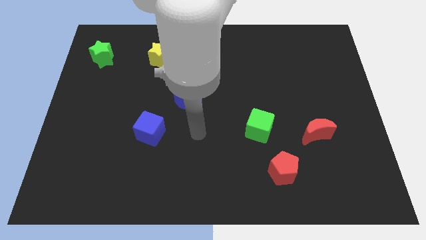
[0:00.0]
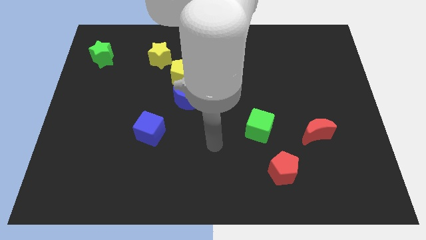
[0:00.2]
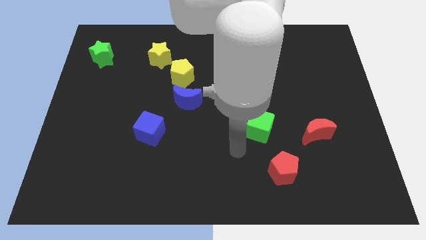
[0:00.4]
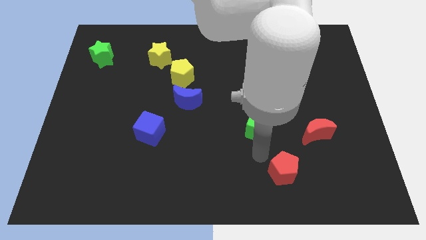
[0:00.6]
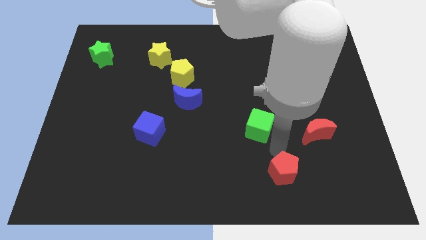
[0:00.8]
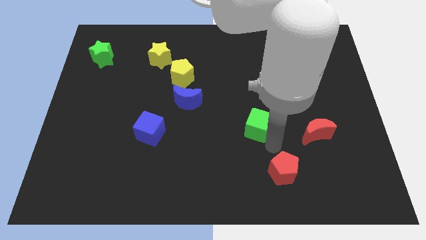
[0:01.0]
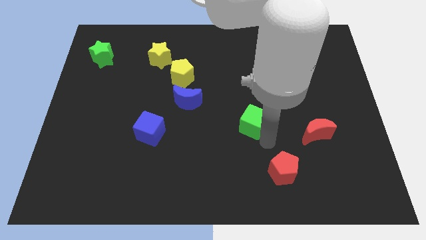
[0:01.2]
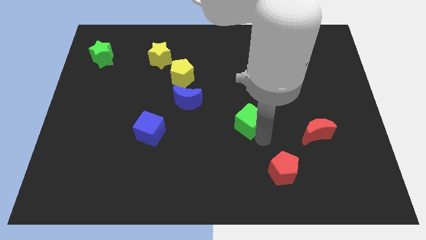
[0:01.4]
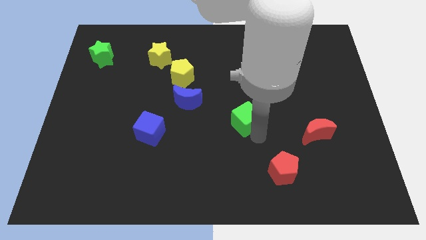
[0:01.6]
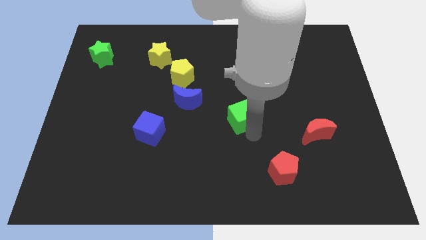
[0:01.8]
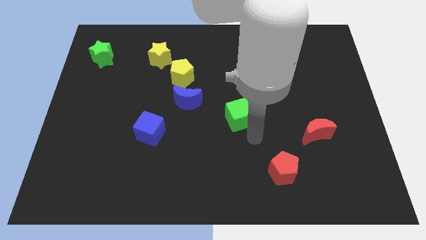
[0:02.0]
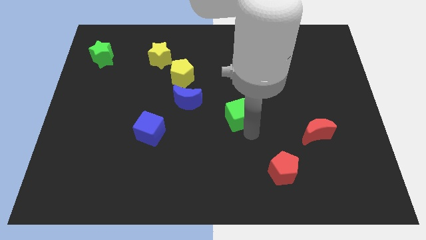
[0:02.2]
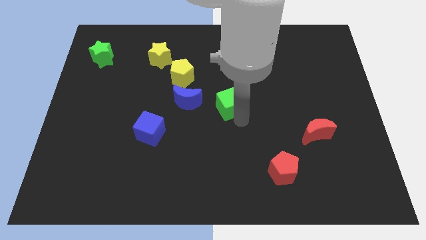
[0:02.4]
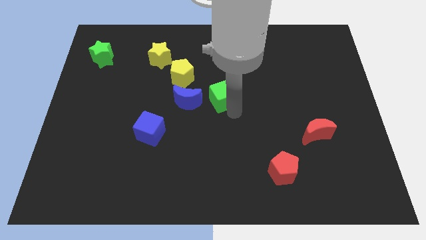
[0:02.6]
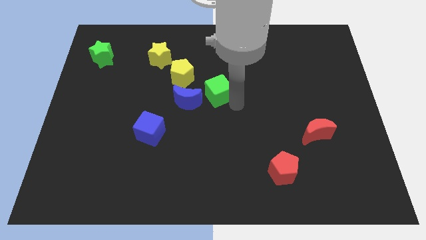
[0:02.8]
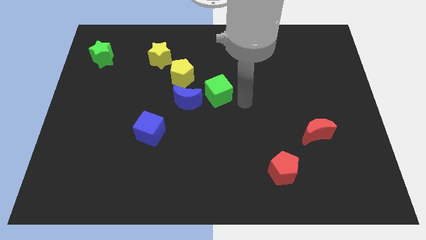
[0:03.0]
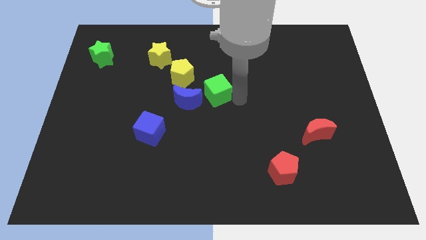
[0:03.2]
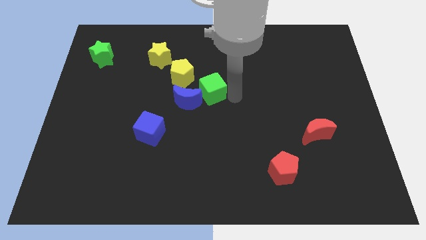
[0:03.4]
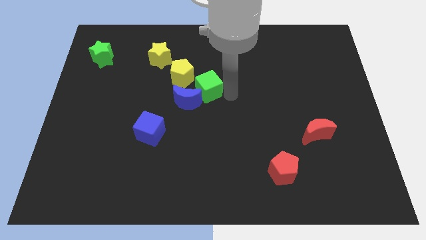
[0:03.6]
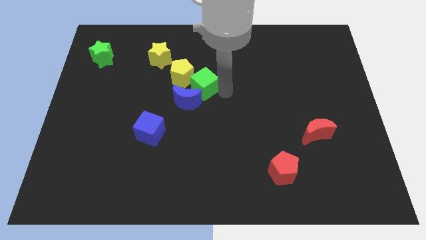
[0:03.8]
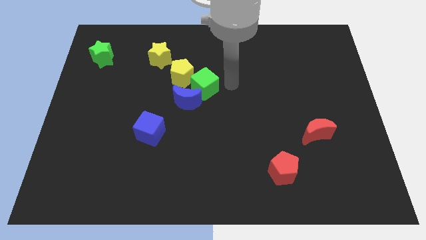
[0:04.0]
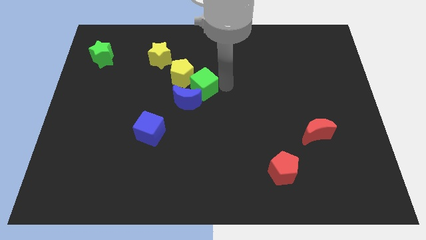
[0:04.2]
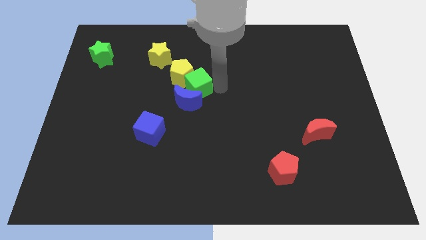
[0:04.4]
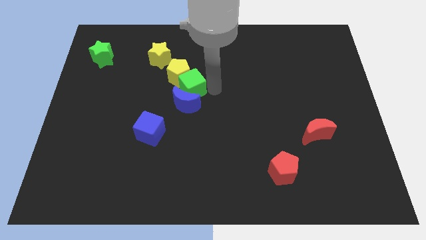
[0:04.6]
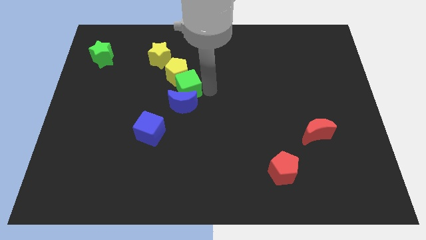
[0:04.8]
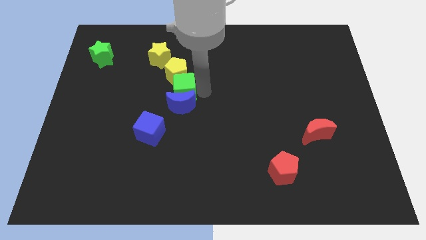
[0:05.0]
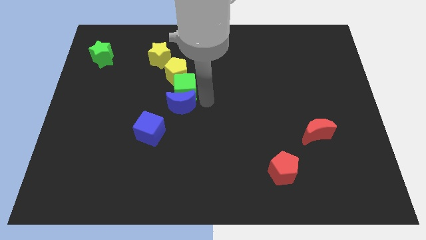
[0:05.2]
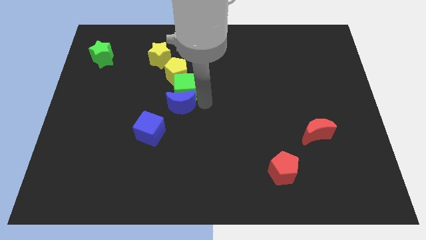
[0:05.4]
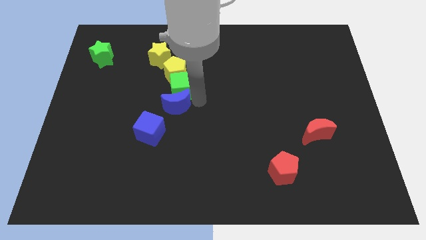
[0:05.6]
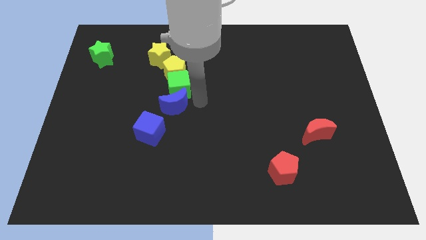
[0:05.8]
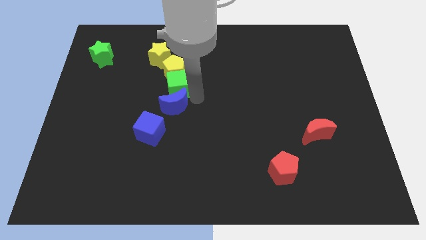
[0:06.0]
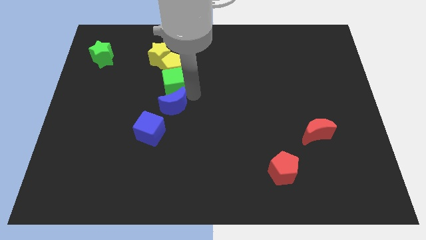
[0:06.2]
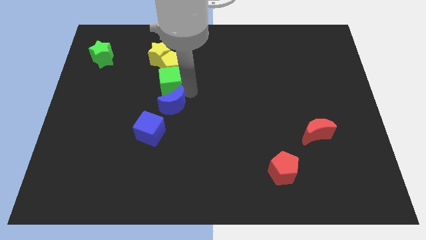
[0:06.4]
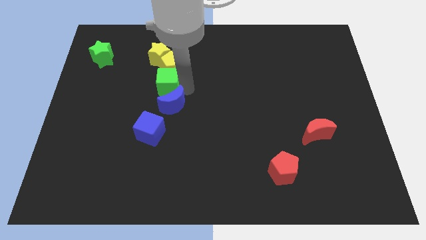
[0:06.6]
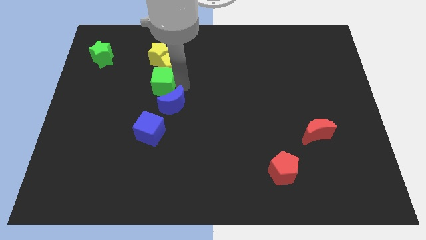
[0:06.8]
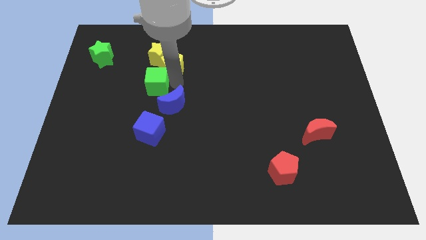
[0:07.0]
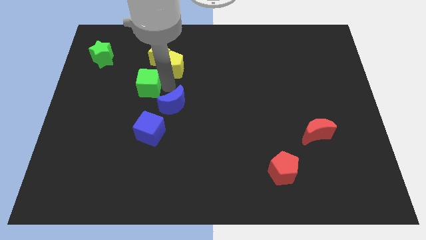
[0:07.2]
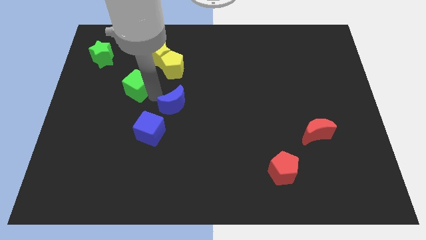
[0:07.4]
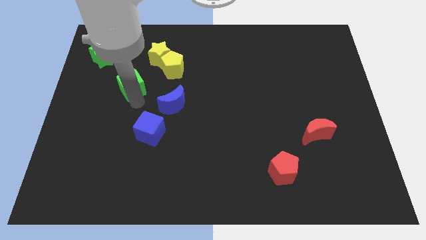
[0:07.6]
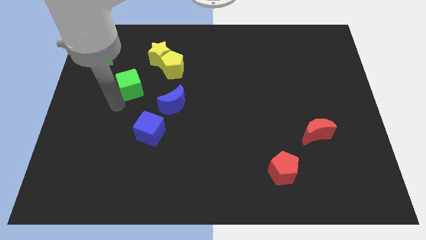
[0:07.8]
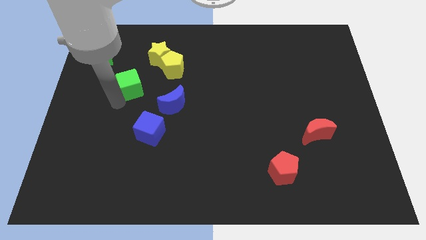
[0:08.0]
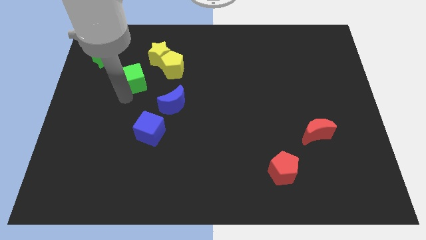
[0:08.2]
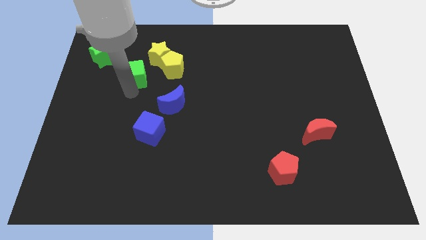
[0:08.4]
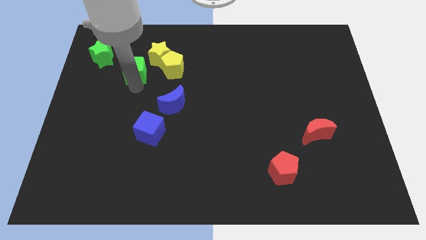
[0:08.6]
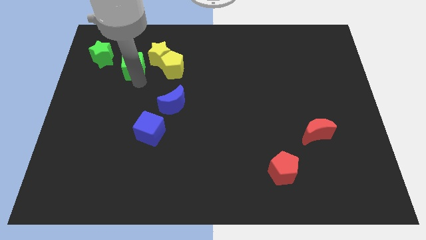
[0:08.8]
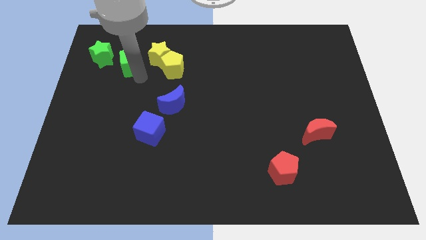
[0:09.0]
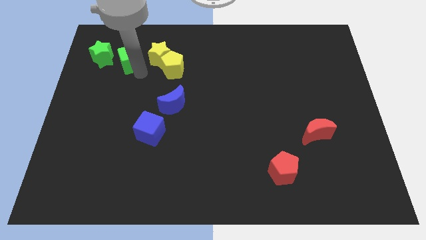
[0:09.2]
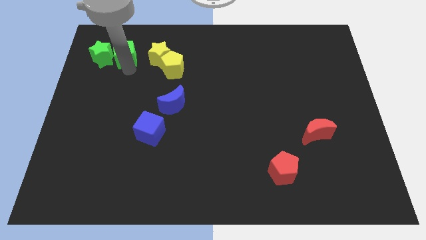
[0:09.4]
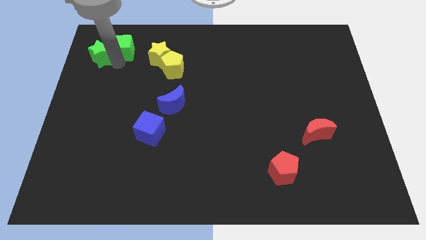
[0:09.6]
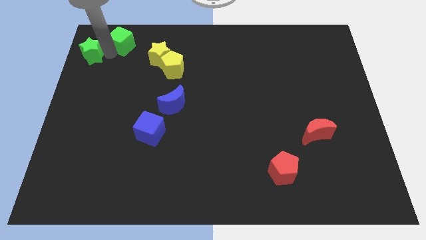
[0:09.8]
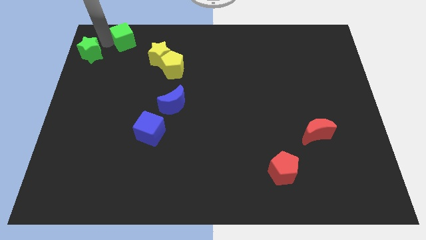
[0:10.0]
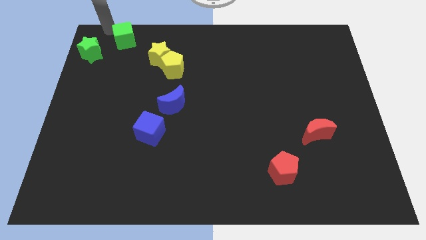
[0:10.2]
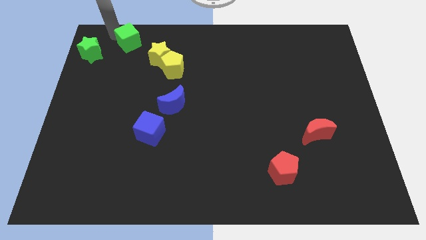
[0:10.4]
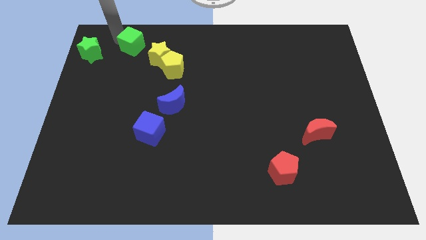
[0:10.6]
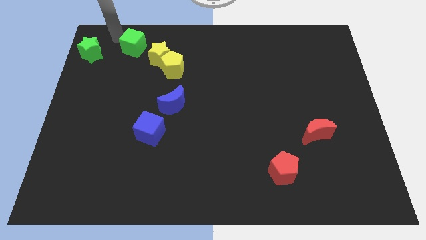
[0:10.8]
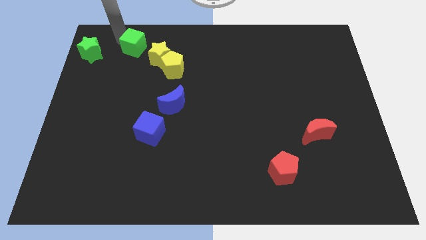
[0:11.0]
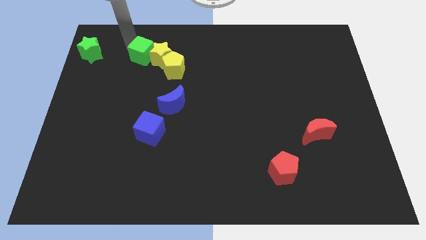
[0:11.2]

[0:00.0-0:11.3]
push the green cube close to the yellow star

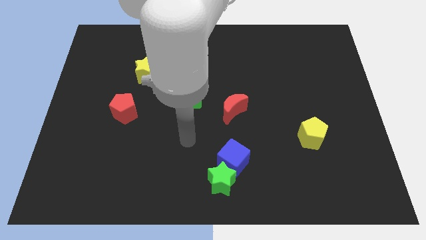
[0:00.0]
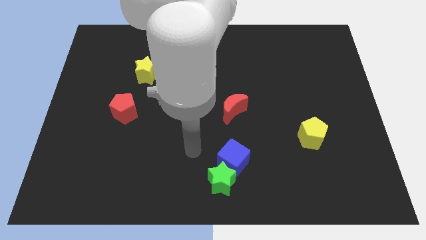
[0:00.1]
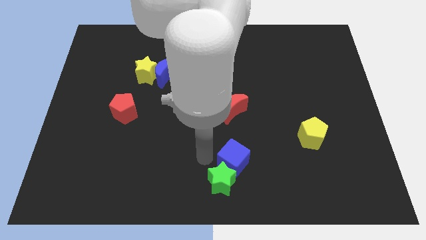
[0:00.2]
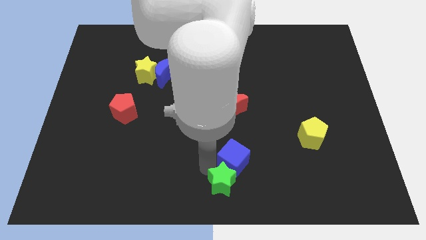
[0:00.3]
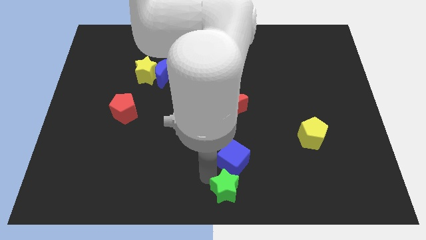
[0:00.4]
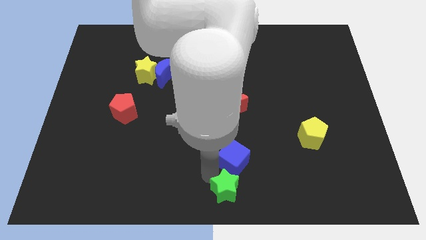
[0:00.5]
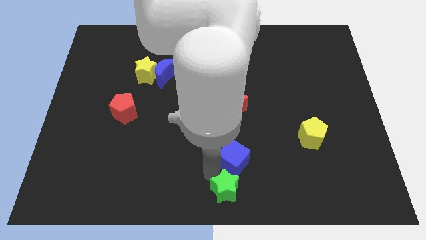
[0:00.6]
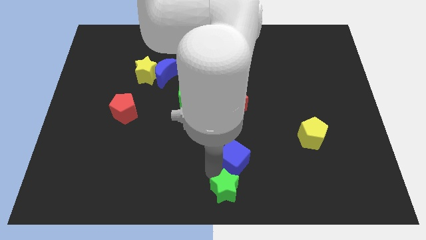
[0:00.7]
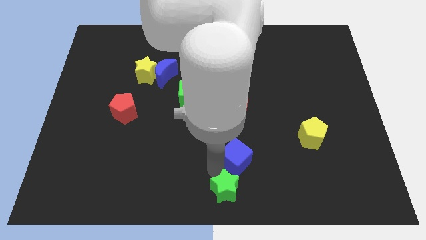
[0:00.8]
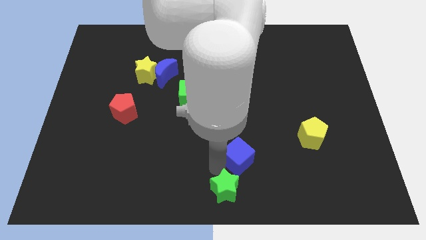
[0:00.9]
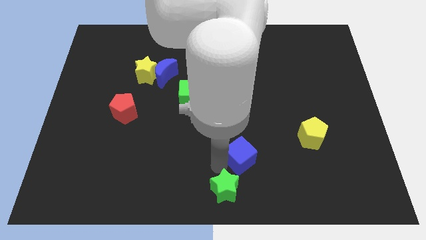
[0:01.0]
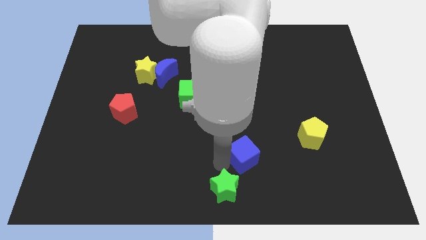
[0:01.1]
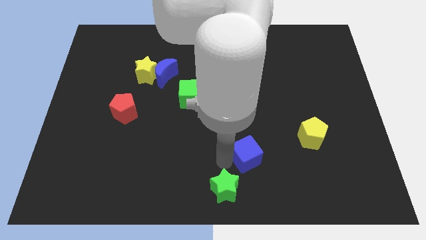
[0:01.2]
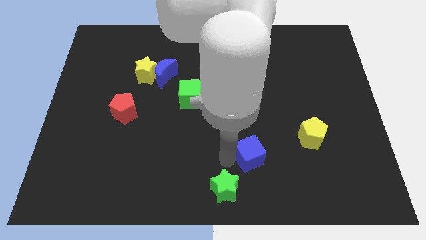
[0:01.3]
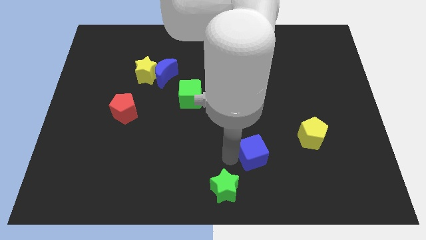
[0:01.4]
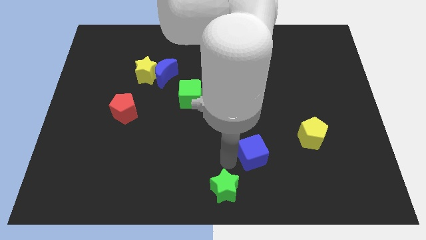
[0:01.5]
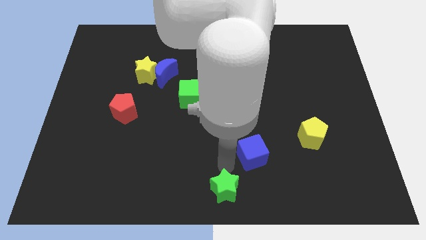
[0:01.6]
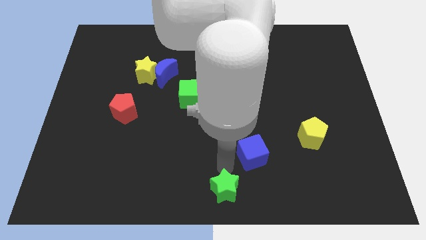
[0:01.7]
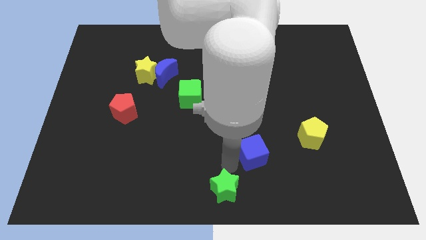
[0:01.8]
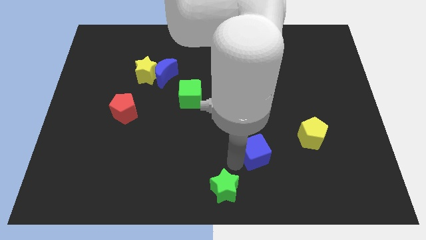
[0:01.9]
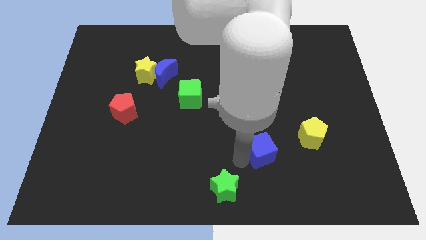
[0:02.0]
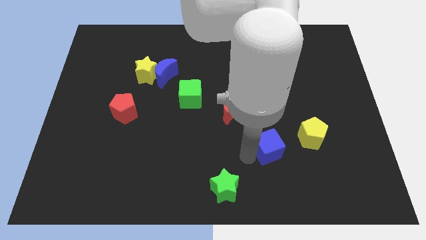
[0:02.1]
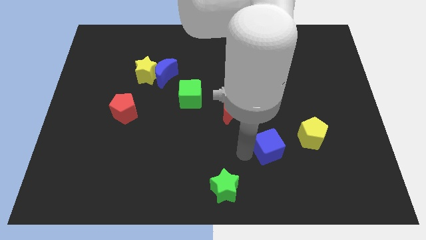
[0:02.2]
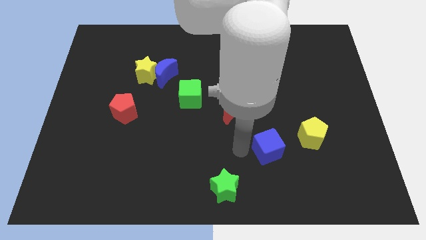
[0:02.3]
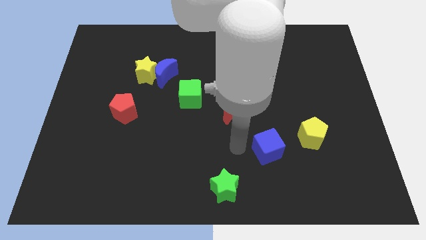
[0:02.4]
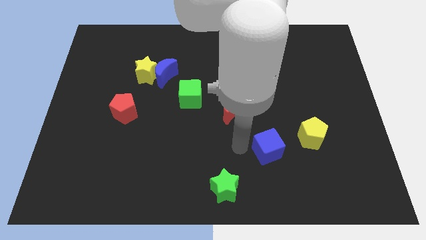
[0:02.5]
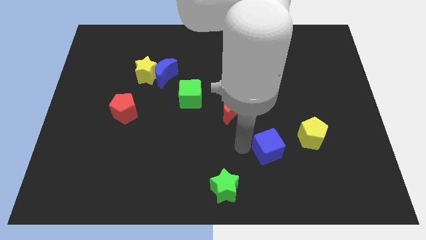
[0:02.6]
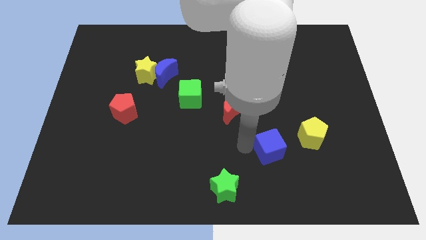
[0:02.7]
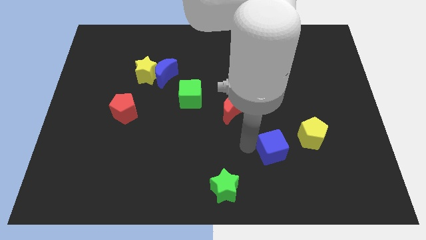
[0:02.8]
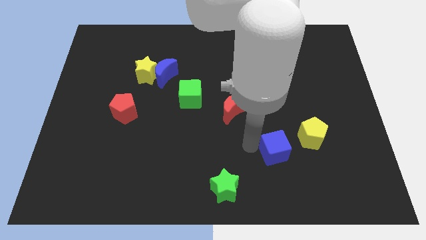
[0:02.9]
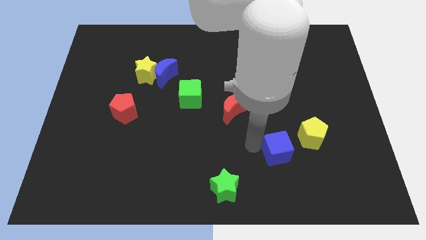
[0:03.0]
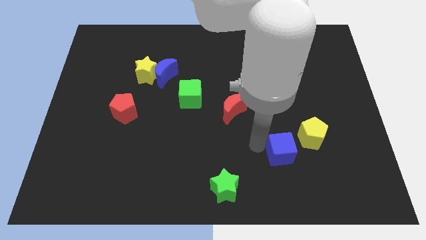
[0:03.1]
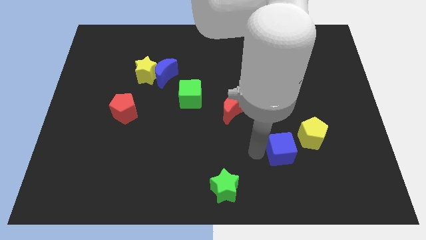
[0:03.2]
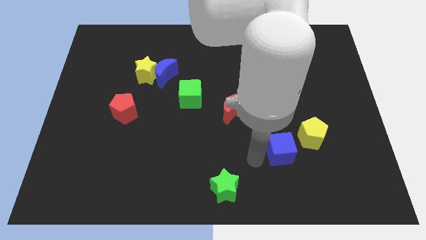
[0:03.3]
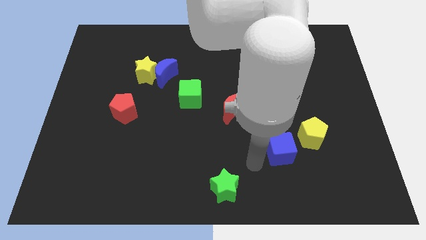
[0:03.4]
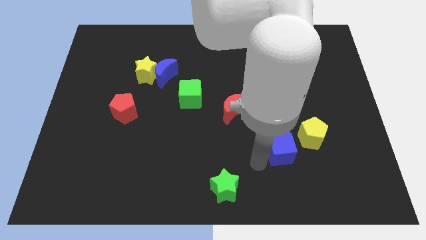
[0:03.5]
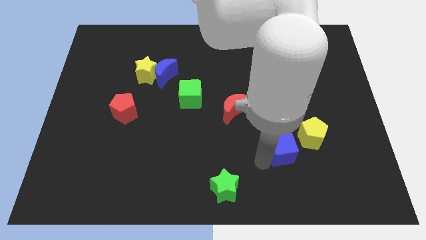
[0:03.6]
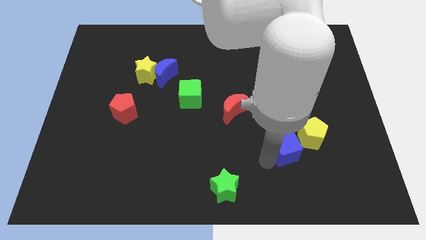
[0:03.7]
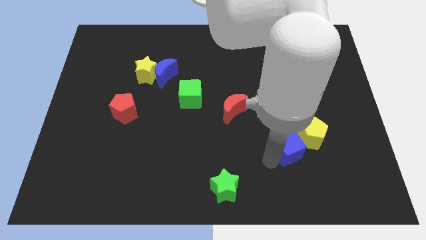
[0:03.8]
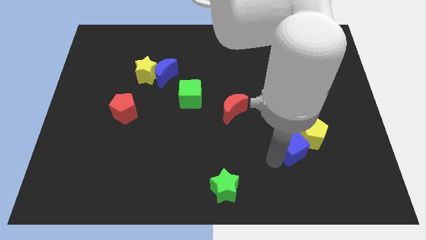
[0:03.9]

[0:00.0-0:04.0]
move the blue cube to the yellow pentagon
